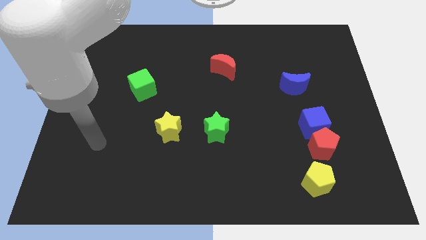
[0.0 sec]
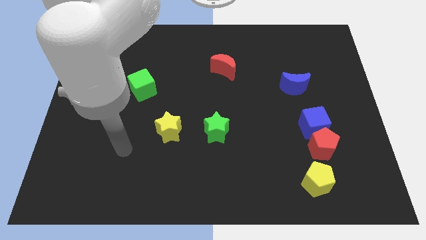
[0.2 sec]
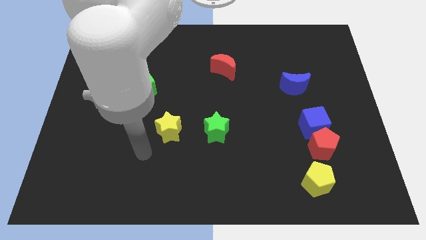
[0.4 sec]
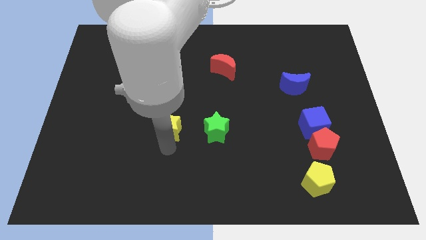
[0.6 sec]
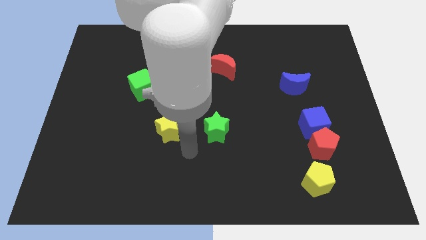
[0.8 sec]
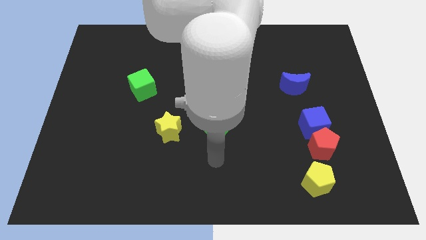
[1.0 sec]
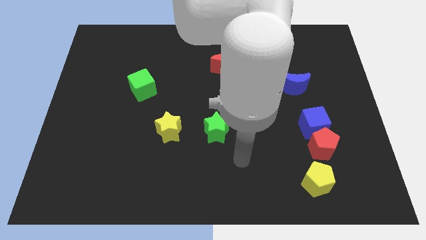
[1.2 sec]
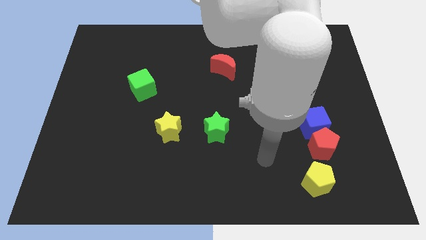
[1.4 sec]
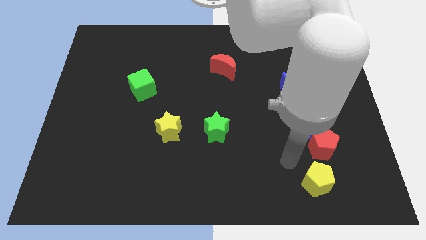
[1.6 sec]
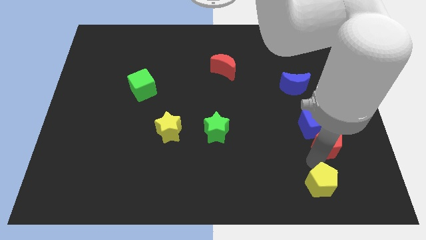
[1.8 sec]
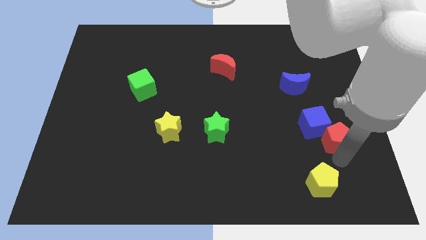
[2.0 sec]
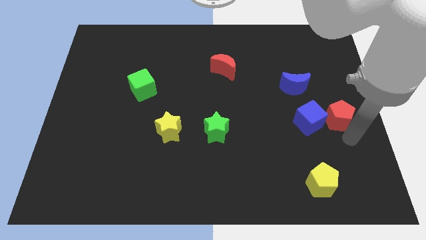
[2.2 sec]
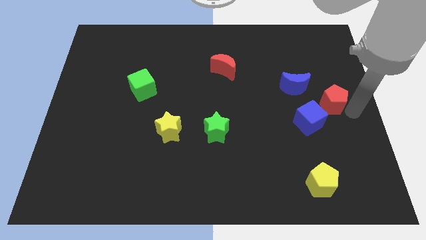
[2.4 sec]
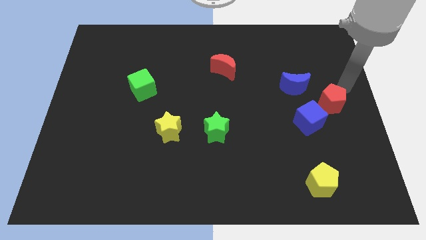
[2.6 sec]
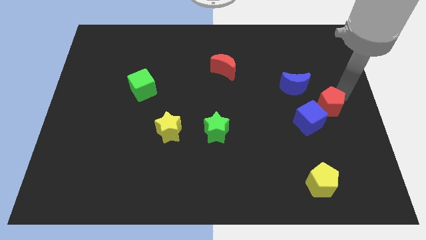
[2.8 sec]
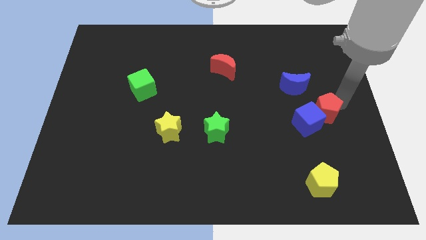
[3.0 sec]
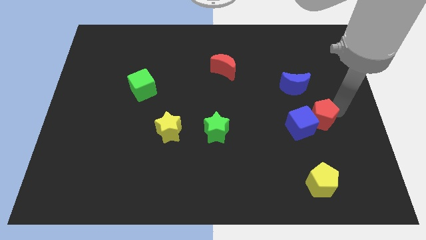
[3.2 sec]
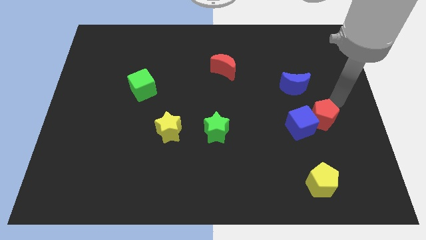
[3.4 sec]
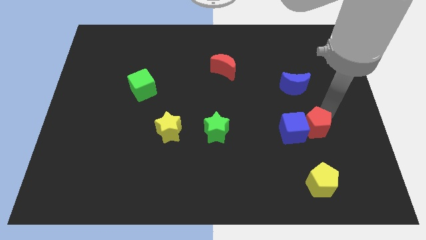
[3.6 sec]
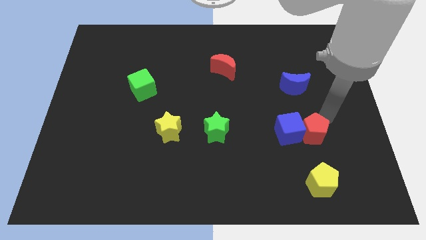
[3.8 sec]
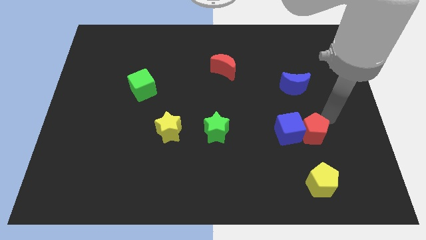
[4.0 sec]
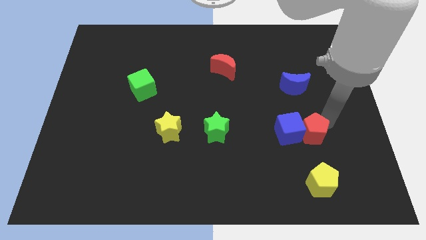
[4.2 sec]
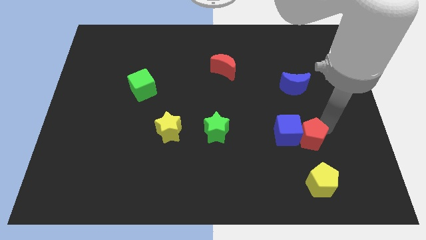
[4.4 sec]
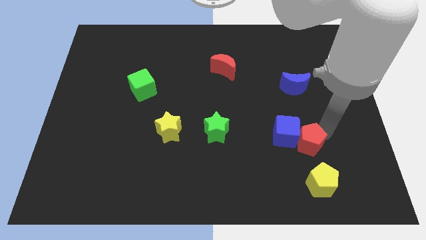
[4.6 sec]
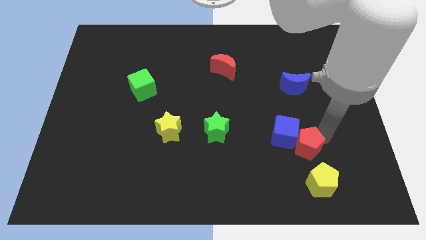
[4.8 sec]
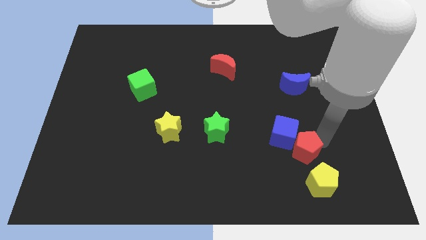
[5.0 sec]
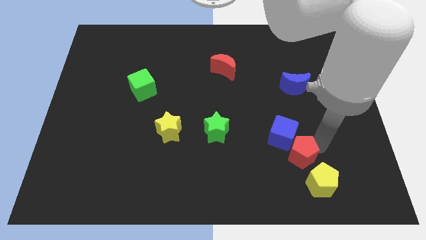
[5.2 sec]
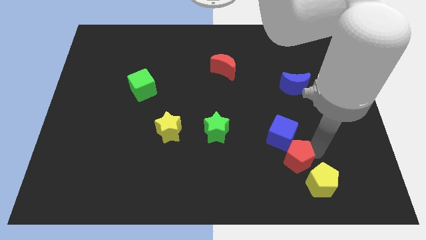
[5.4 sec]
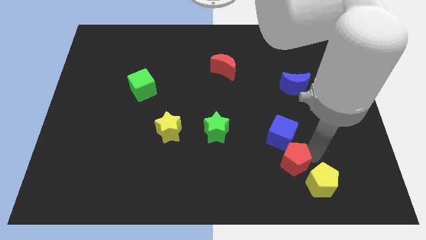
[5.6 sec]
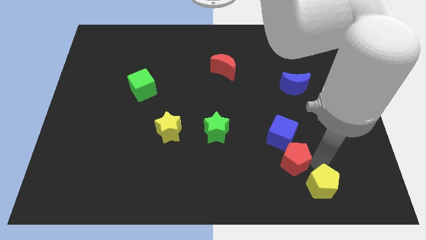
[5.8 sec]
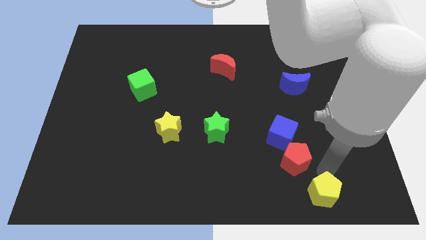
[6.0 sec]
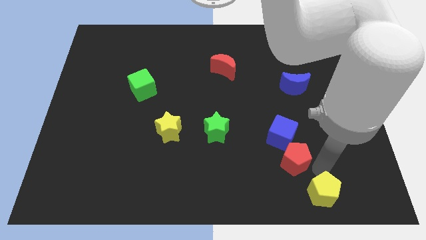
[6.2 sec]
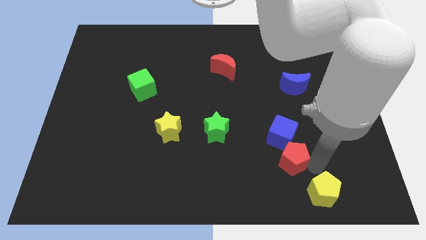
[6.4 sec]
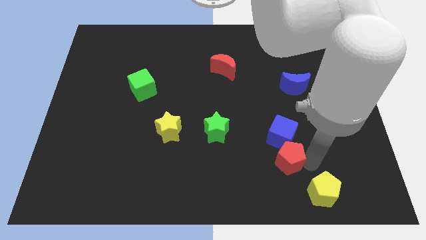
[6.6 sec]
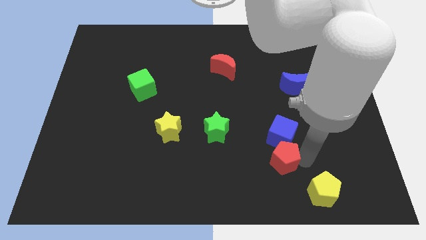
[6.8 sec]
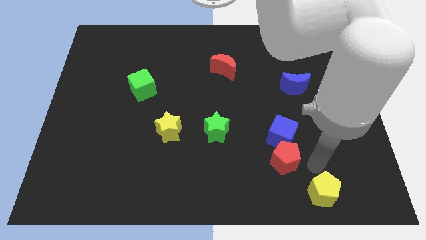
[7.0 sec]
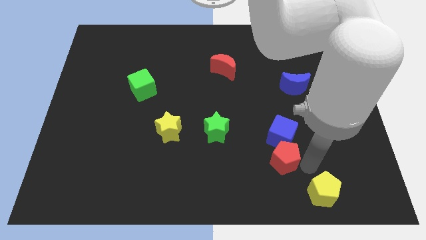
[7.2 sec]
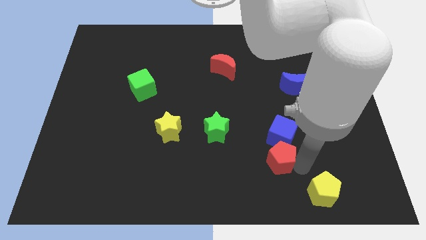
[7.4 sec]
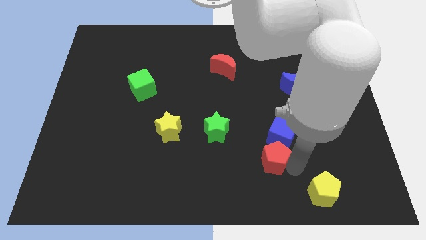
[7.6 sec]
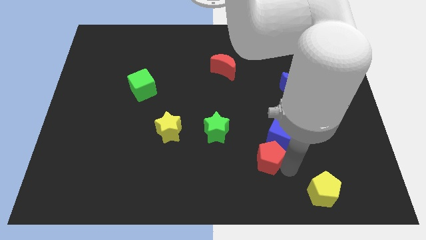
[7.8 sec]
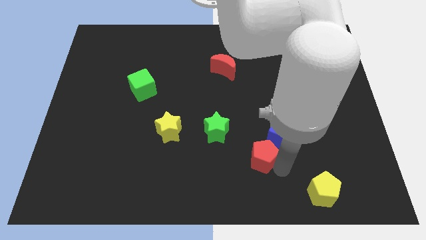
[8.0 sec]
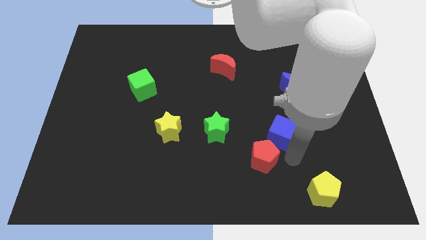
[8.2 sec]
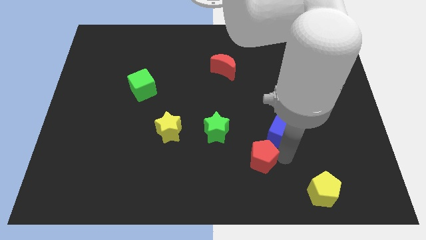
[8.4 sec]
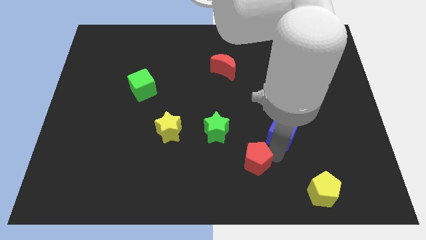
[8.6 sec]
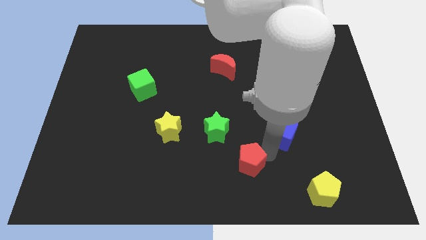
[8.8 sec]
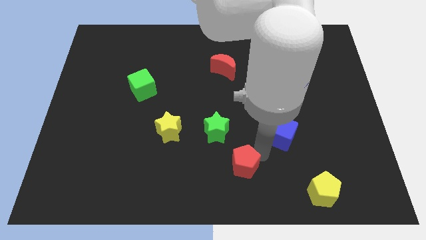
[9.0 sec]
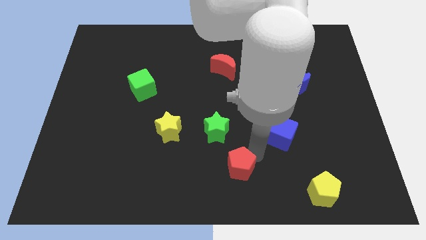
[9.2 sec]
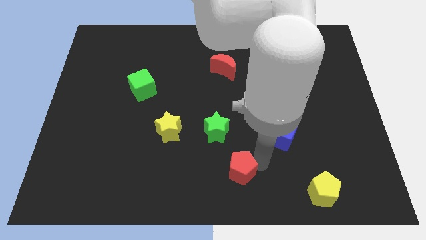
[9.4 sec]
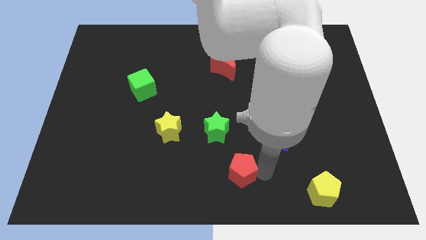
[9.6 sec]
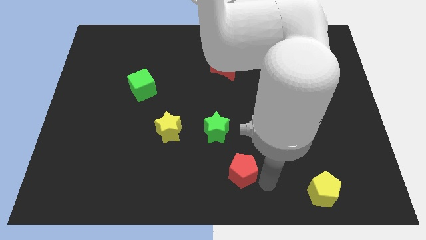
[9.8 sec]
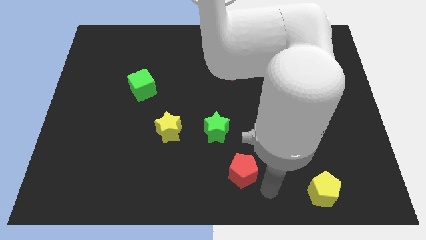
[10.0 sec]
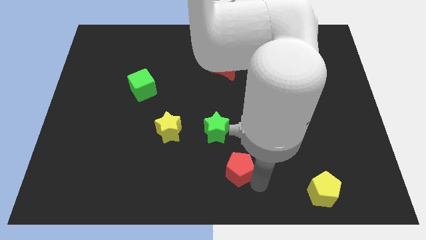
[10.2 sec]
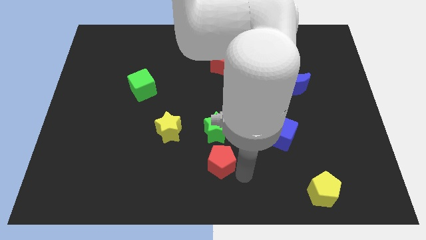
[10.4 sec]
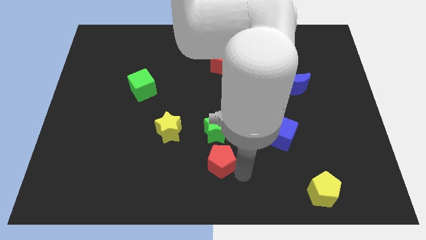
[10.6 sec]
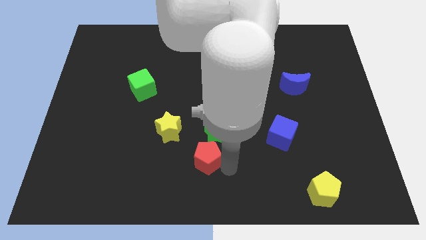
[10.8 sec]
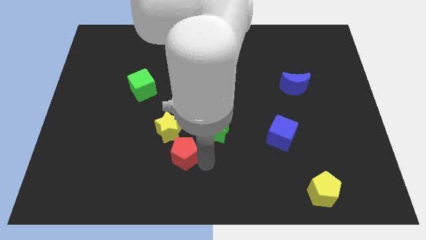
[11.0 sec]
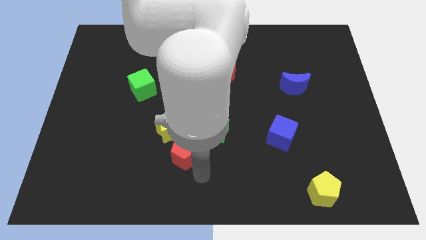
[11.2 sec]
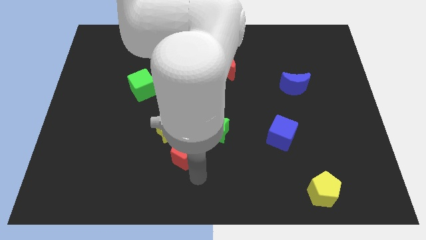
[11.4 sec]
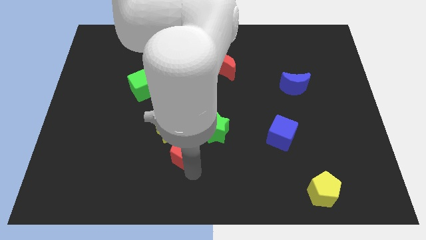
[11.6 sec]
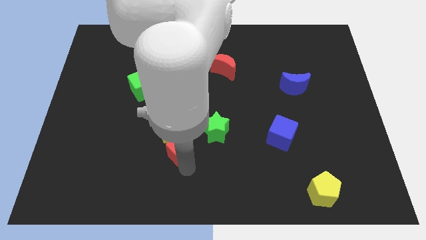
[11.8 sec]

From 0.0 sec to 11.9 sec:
push the red pentagon next to the yellow star

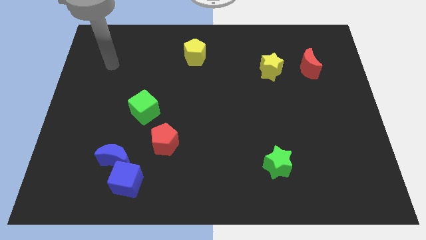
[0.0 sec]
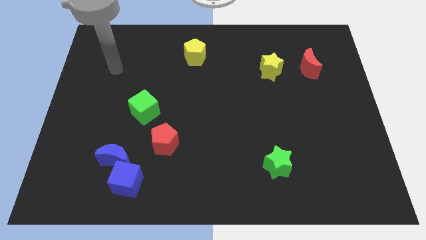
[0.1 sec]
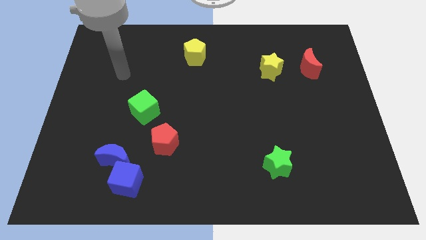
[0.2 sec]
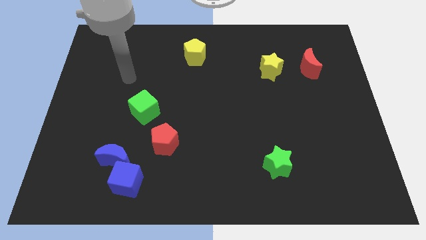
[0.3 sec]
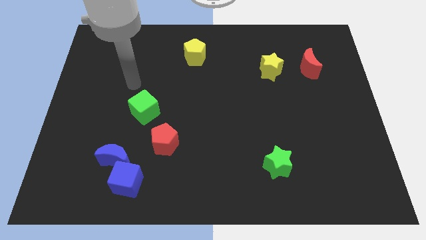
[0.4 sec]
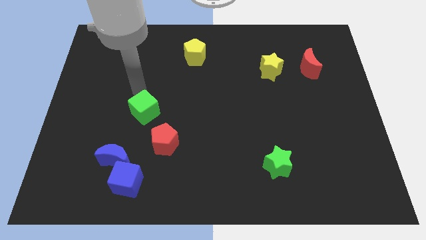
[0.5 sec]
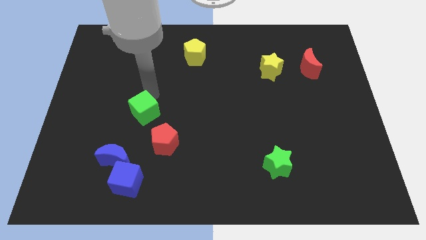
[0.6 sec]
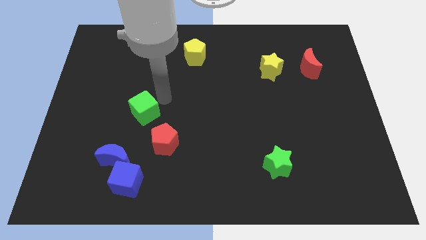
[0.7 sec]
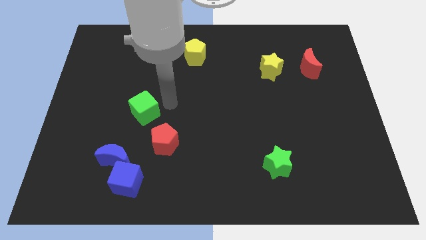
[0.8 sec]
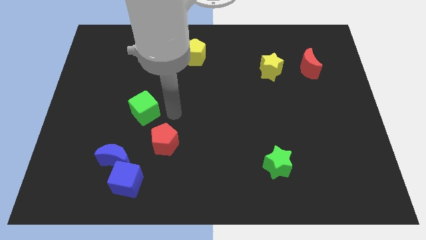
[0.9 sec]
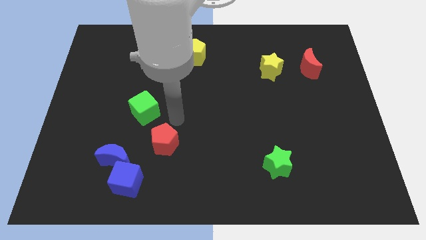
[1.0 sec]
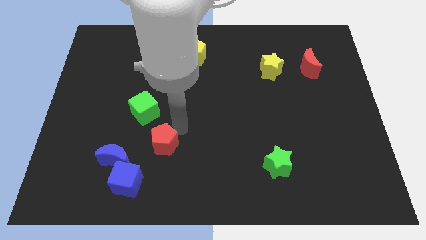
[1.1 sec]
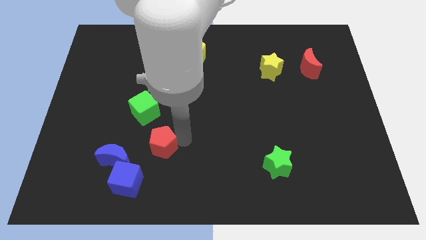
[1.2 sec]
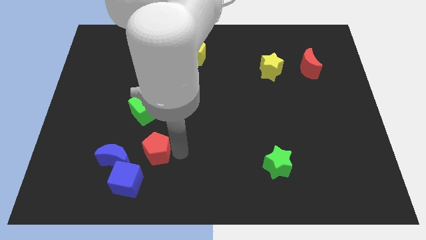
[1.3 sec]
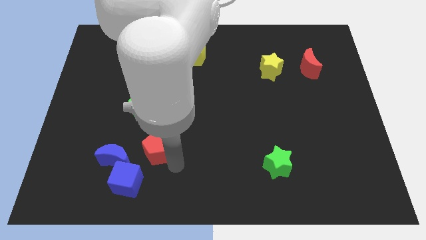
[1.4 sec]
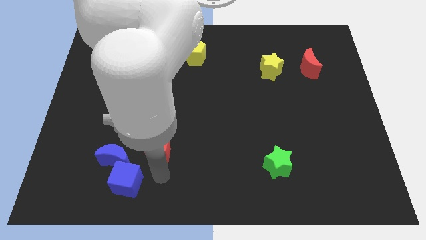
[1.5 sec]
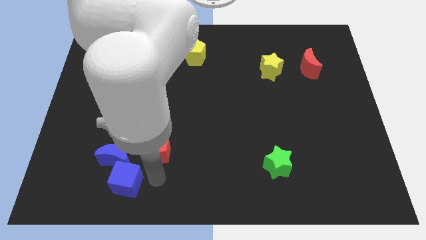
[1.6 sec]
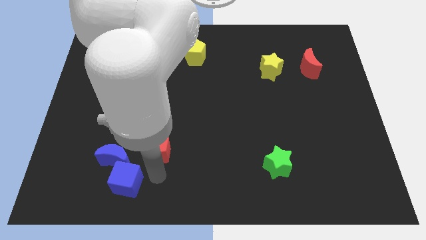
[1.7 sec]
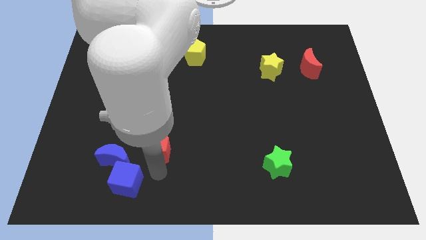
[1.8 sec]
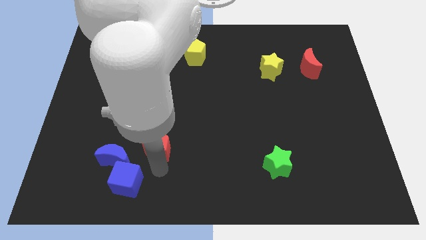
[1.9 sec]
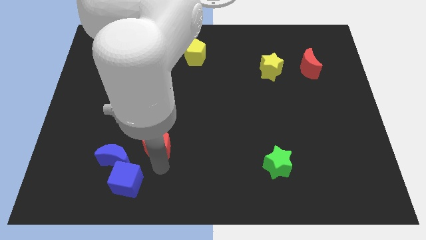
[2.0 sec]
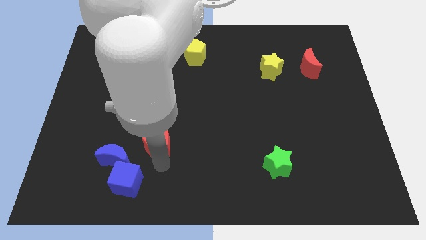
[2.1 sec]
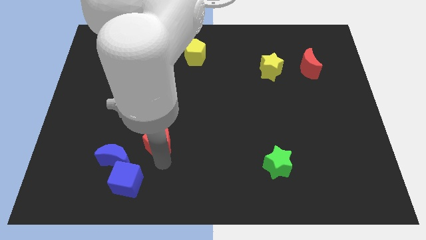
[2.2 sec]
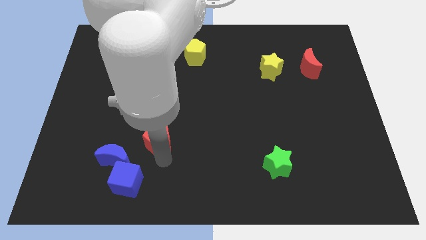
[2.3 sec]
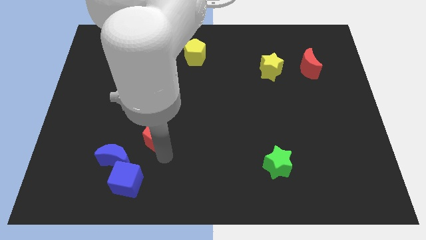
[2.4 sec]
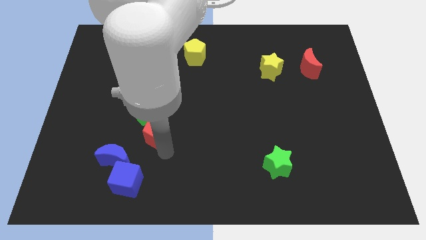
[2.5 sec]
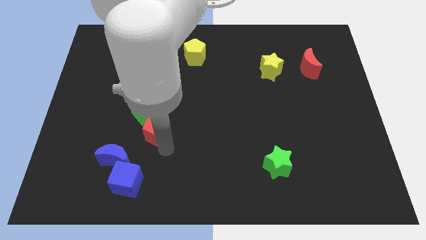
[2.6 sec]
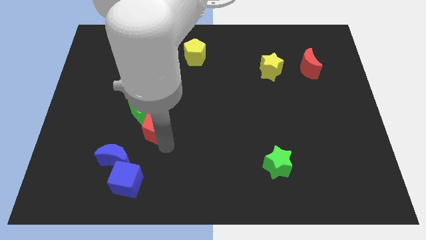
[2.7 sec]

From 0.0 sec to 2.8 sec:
push the red pentagon towards the green cube
